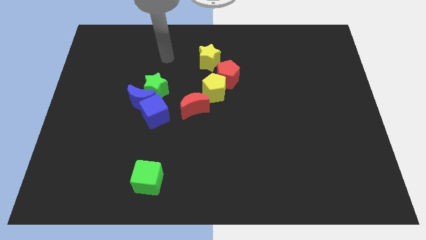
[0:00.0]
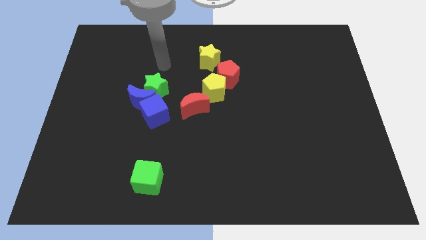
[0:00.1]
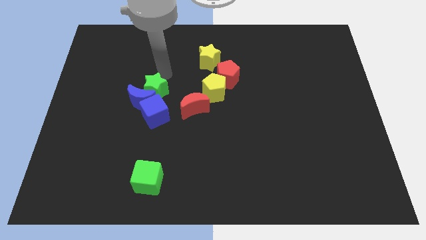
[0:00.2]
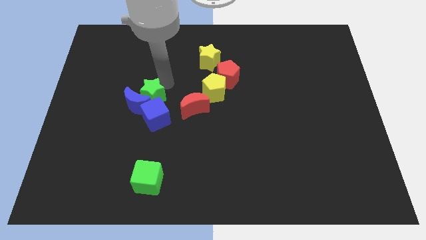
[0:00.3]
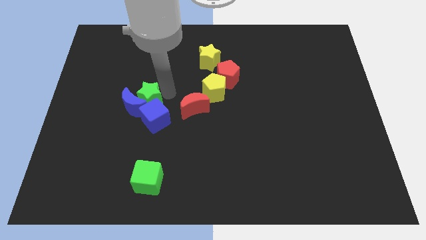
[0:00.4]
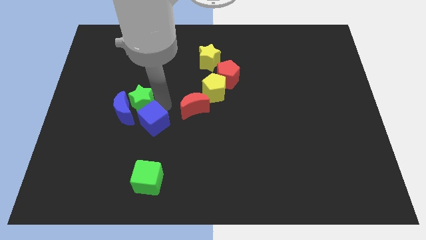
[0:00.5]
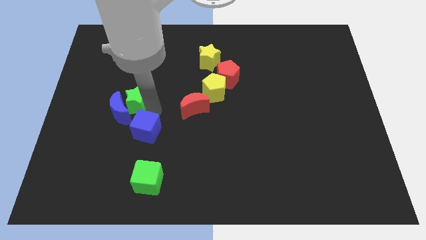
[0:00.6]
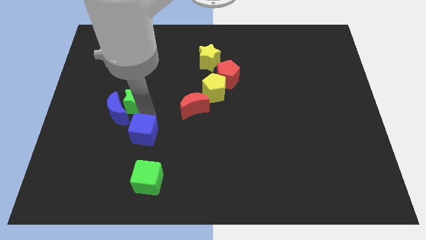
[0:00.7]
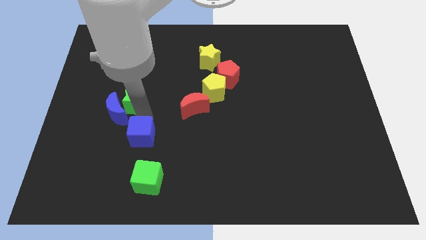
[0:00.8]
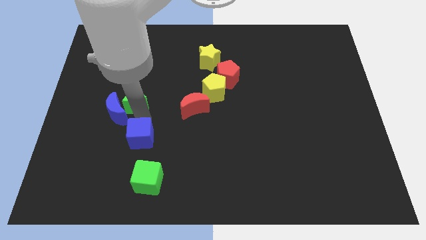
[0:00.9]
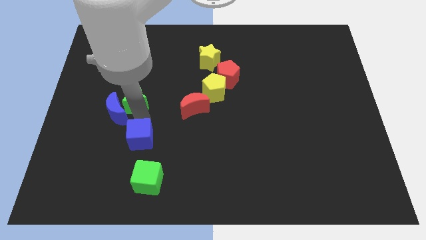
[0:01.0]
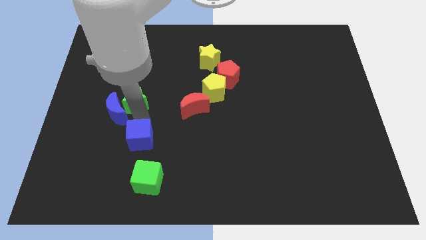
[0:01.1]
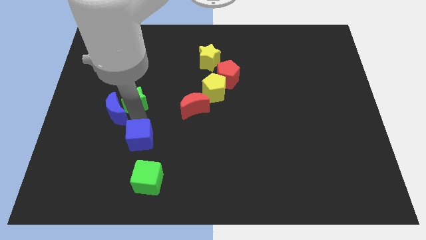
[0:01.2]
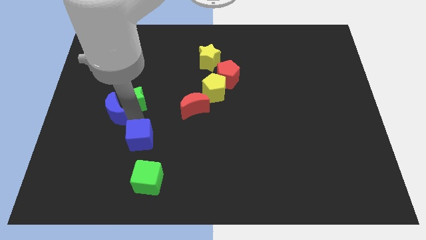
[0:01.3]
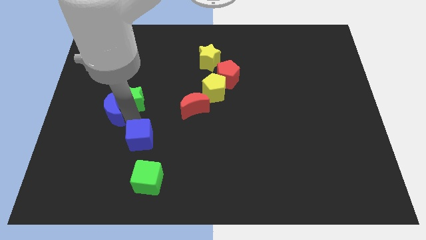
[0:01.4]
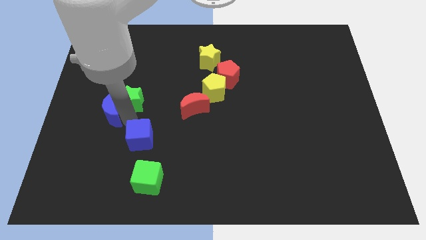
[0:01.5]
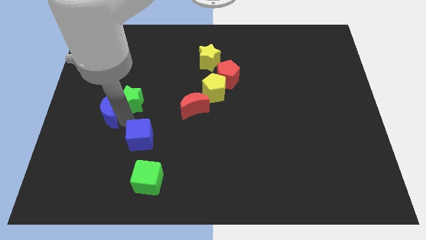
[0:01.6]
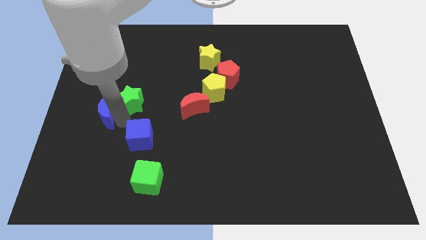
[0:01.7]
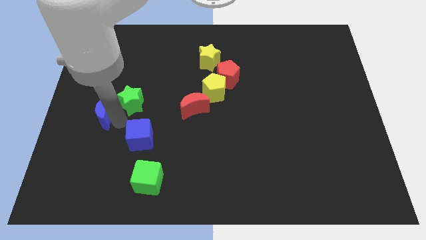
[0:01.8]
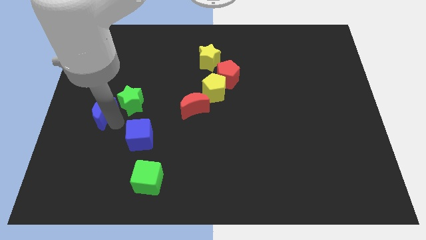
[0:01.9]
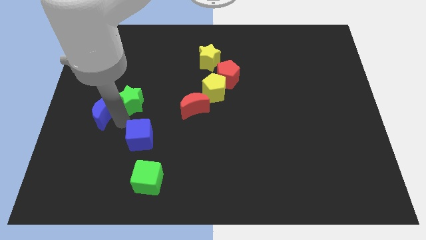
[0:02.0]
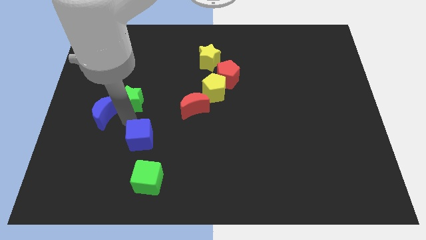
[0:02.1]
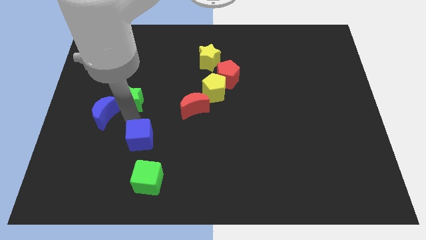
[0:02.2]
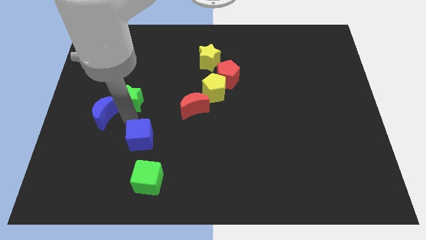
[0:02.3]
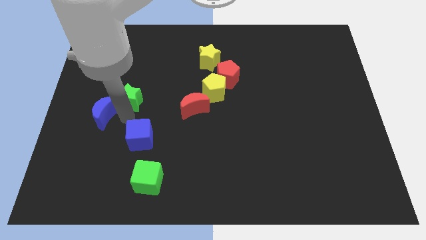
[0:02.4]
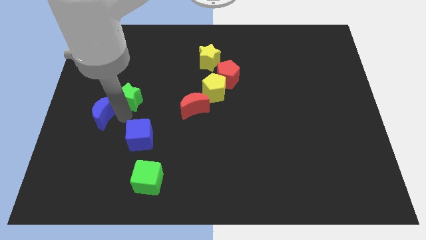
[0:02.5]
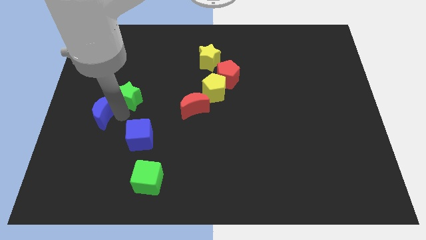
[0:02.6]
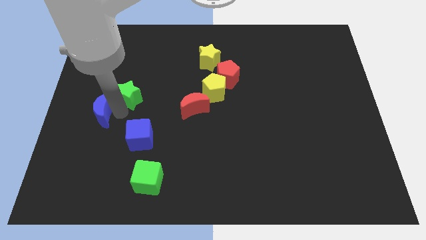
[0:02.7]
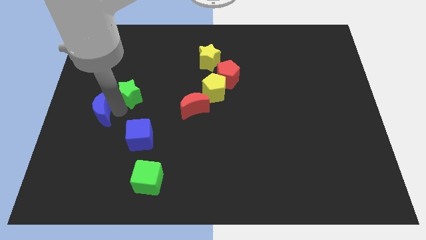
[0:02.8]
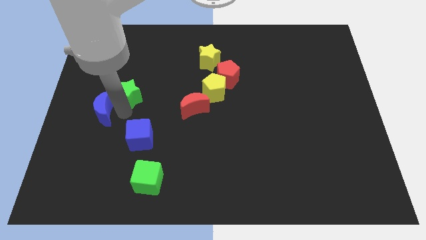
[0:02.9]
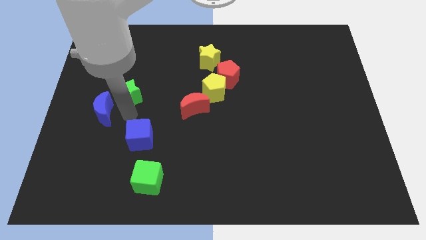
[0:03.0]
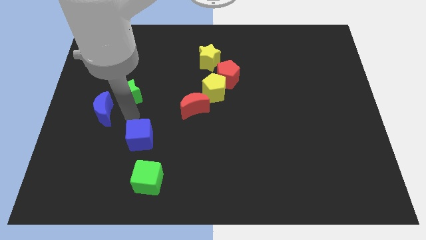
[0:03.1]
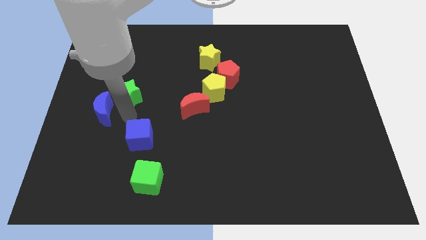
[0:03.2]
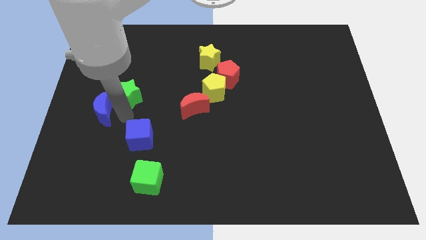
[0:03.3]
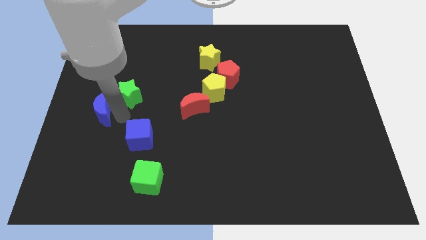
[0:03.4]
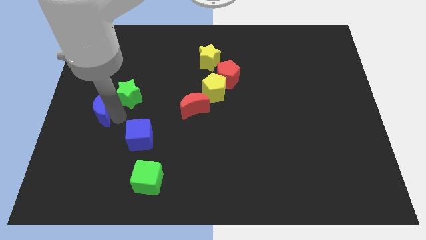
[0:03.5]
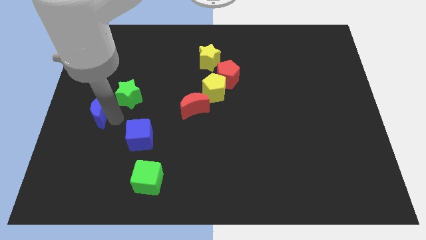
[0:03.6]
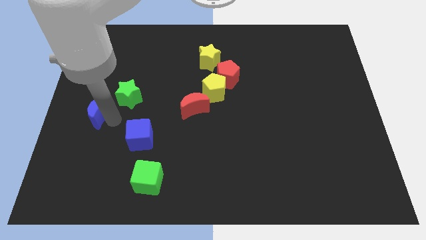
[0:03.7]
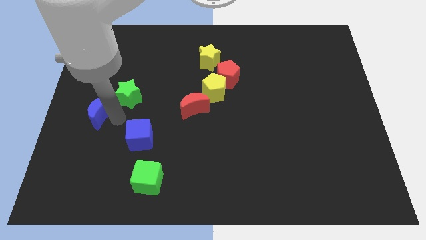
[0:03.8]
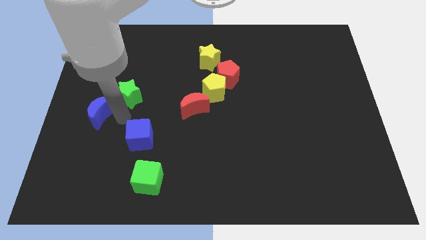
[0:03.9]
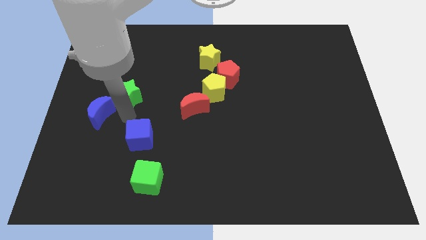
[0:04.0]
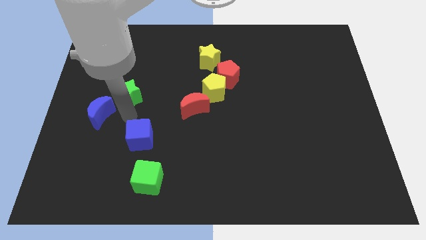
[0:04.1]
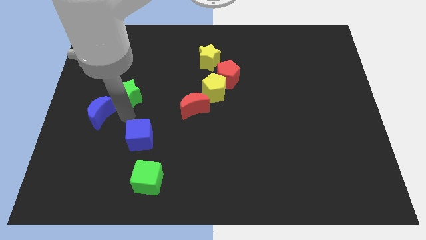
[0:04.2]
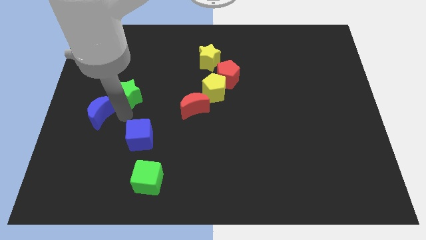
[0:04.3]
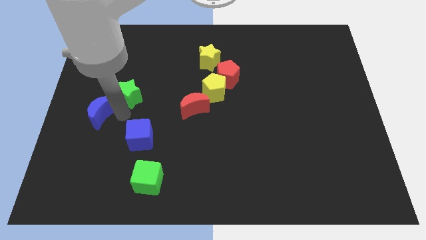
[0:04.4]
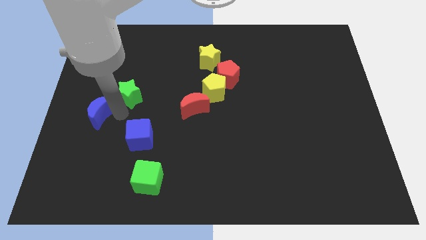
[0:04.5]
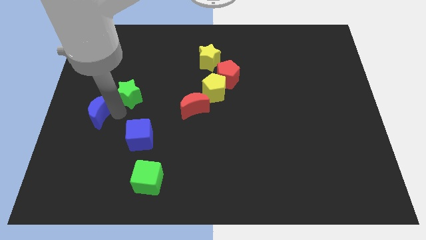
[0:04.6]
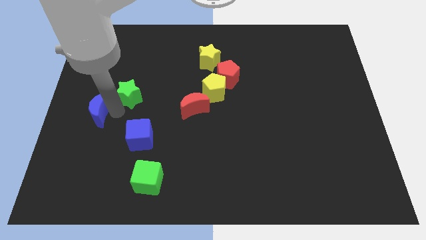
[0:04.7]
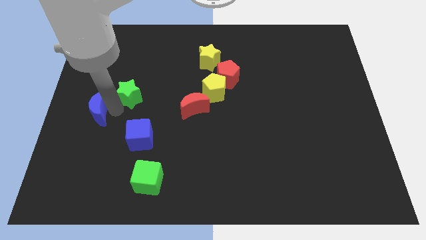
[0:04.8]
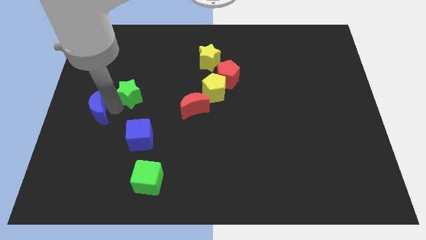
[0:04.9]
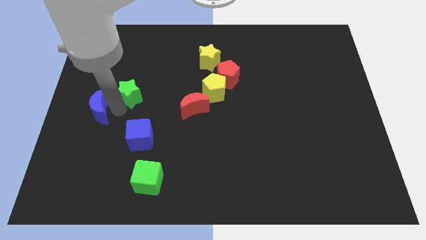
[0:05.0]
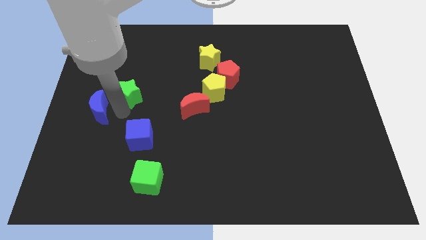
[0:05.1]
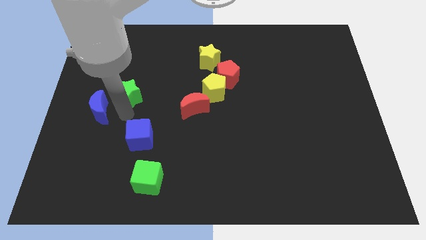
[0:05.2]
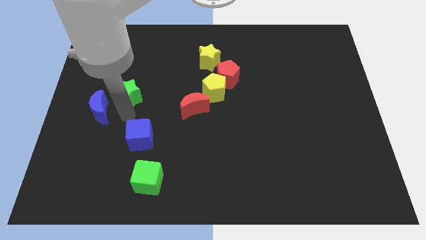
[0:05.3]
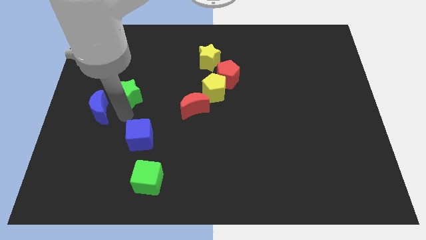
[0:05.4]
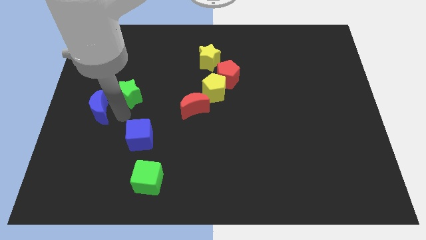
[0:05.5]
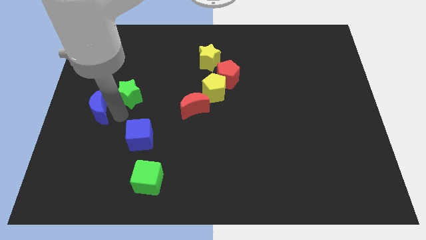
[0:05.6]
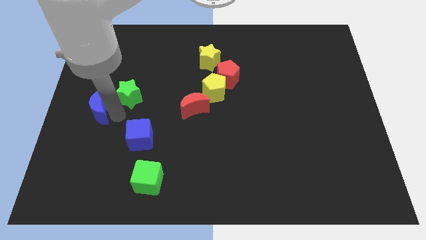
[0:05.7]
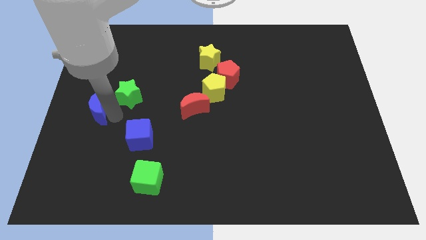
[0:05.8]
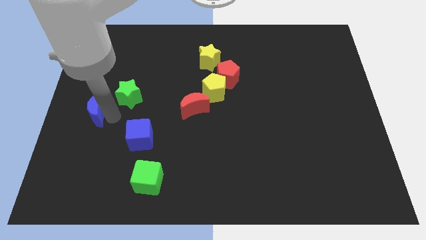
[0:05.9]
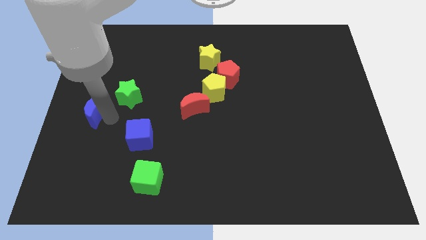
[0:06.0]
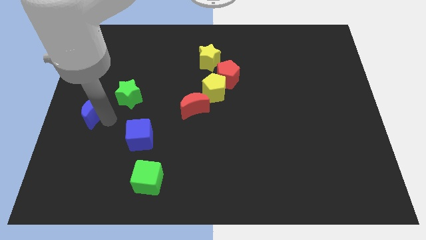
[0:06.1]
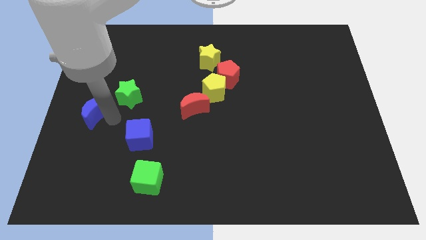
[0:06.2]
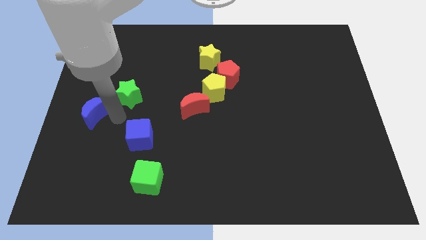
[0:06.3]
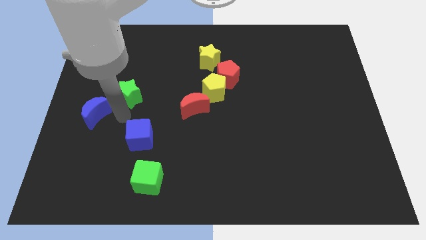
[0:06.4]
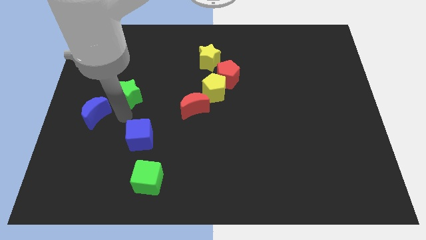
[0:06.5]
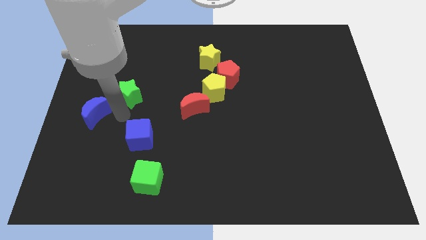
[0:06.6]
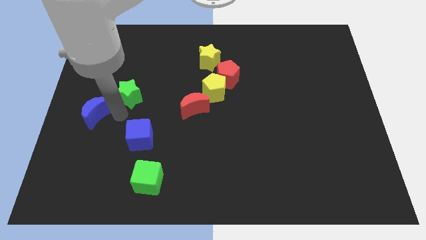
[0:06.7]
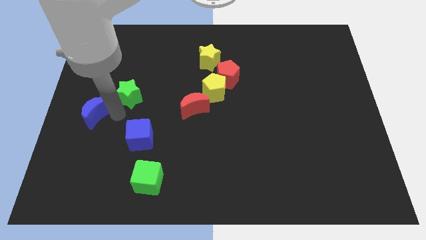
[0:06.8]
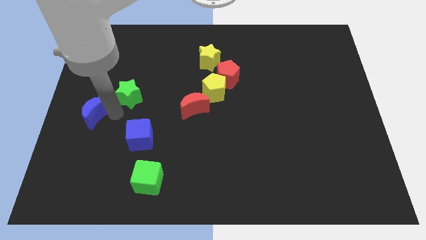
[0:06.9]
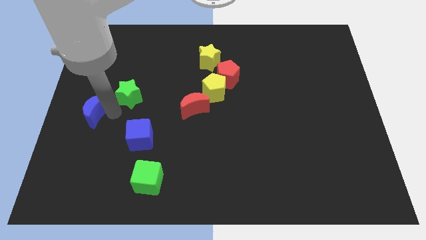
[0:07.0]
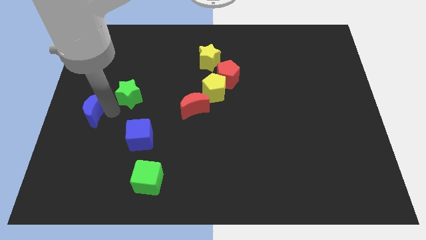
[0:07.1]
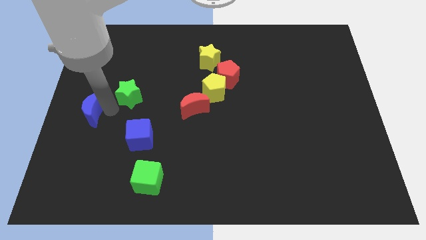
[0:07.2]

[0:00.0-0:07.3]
move the blue moon away from the green star and blue cube

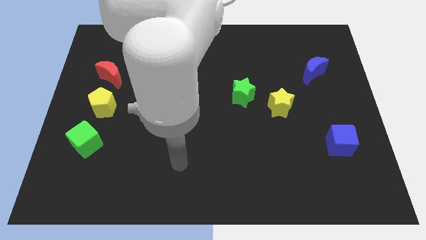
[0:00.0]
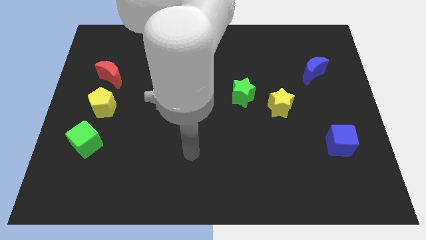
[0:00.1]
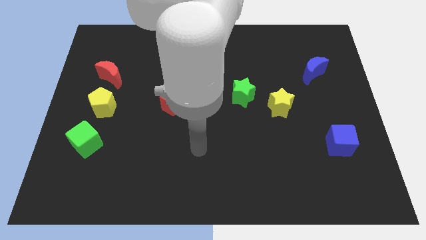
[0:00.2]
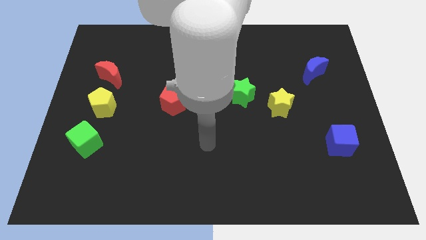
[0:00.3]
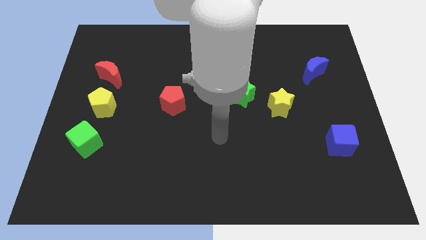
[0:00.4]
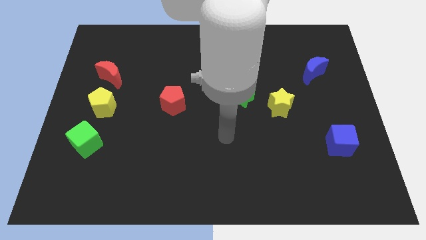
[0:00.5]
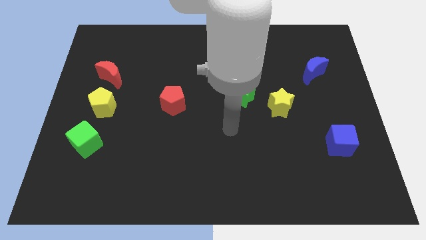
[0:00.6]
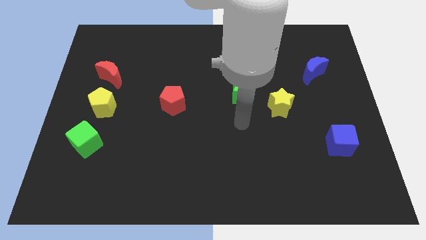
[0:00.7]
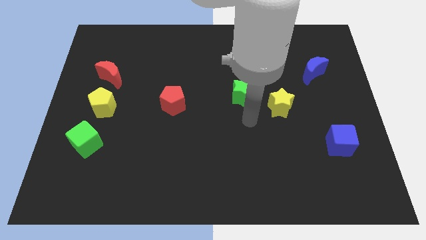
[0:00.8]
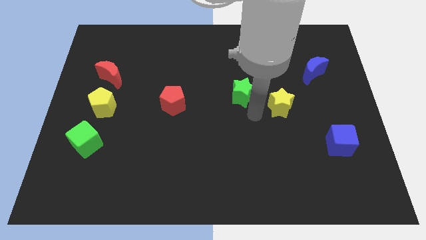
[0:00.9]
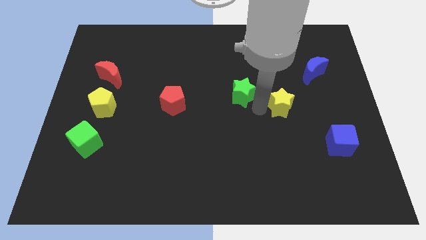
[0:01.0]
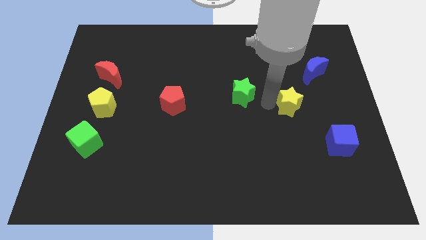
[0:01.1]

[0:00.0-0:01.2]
pull the green star apart from the yellow star

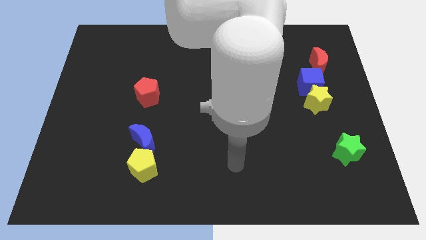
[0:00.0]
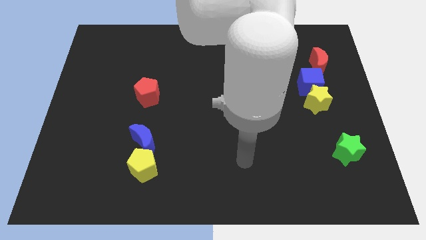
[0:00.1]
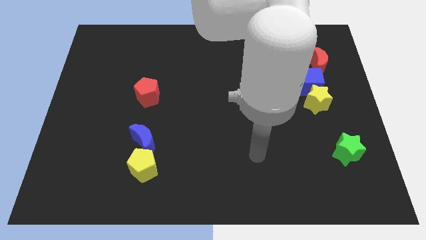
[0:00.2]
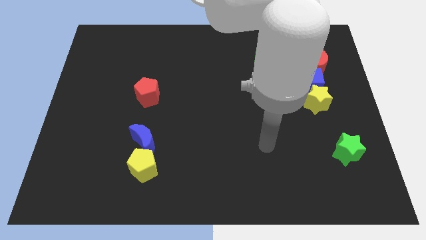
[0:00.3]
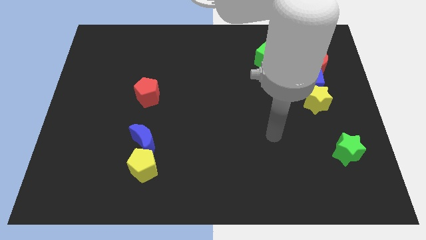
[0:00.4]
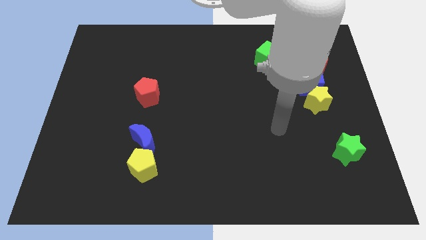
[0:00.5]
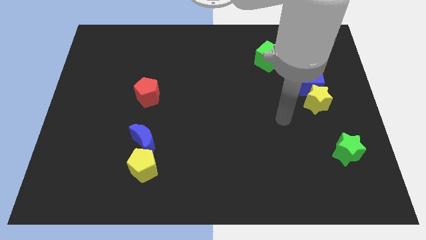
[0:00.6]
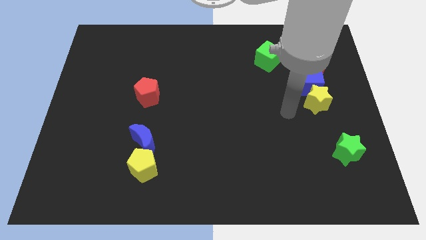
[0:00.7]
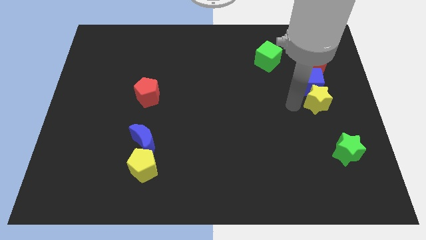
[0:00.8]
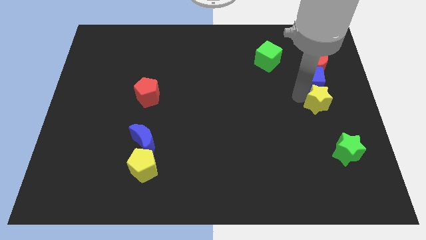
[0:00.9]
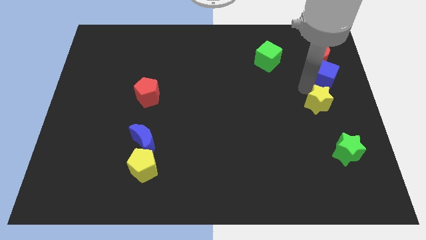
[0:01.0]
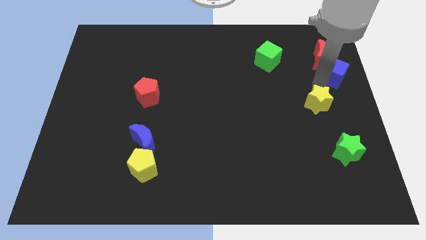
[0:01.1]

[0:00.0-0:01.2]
pull the yellow star apart from the blue cube
